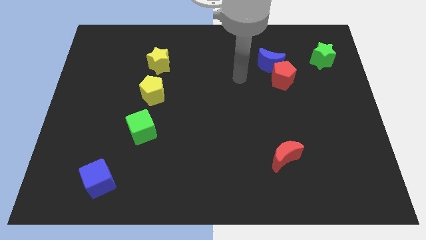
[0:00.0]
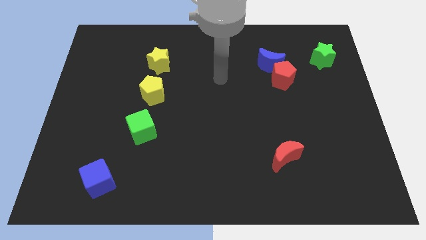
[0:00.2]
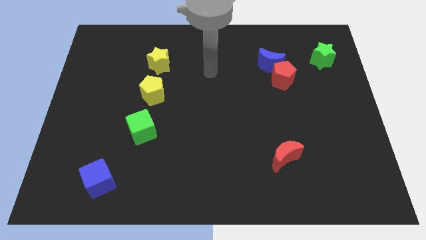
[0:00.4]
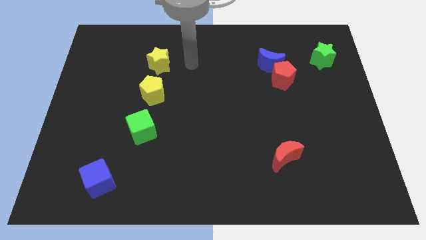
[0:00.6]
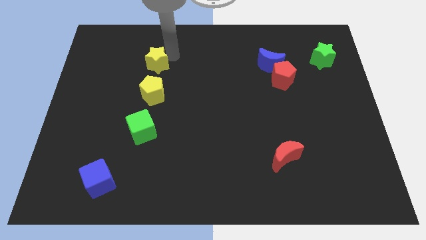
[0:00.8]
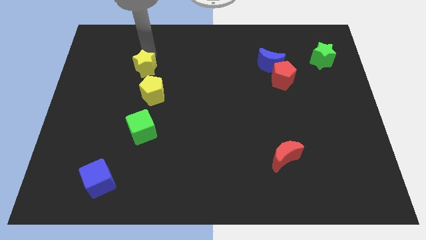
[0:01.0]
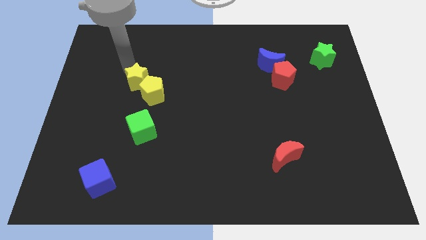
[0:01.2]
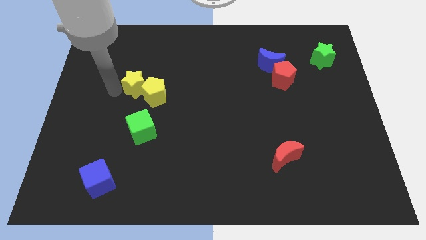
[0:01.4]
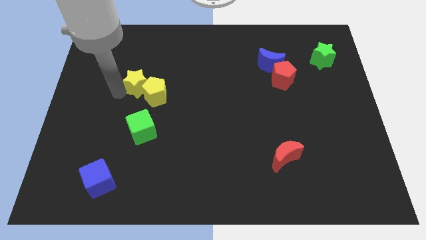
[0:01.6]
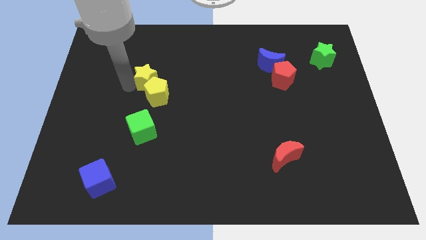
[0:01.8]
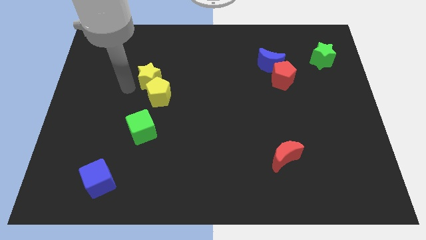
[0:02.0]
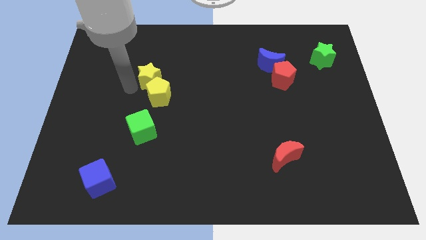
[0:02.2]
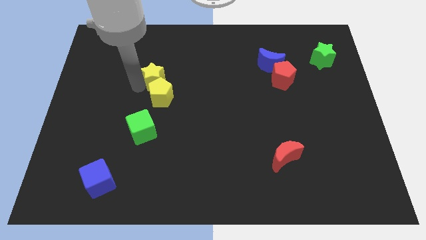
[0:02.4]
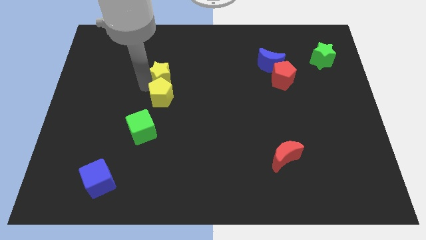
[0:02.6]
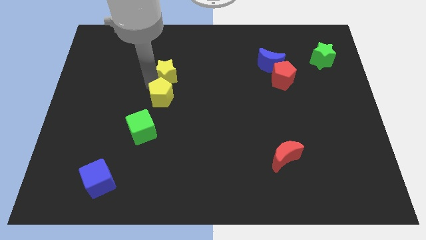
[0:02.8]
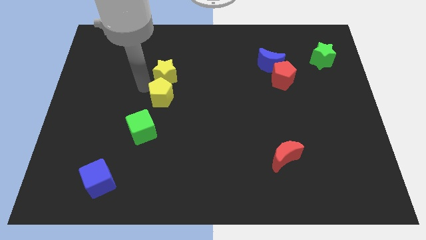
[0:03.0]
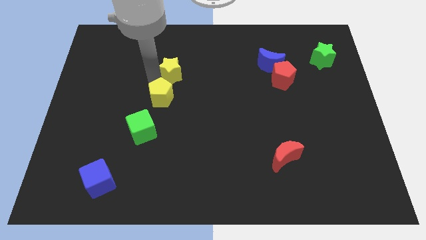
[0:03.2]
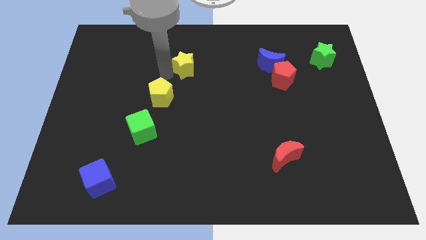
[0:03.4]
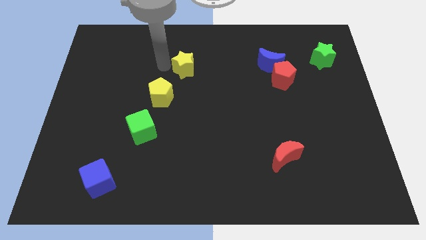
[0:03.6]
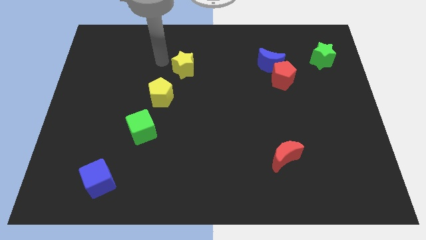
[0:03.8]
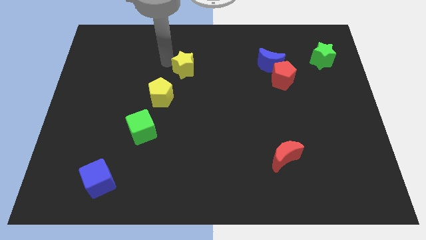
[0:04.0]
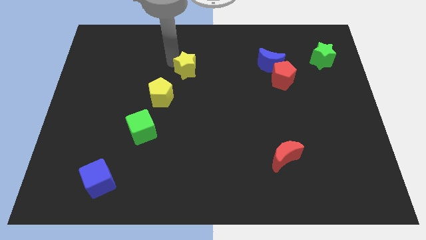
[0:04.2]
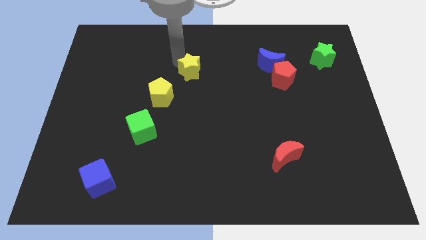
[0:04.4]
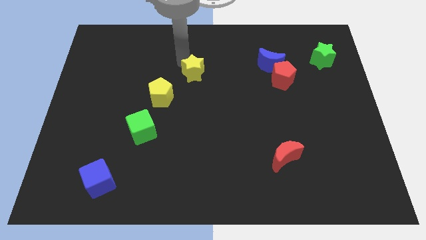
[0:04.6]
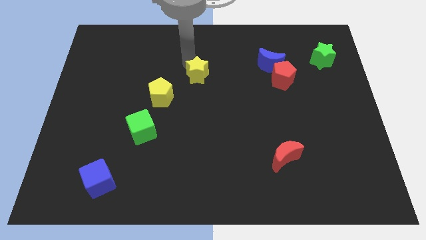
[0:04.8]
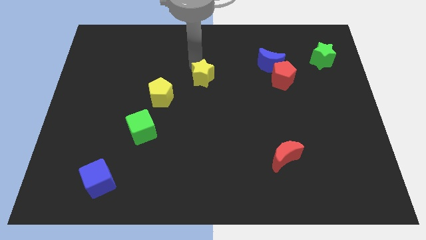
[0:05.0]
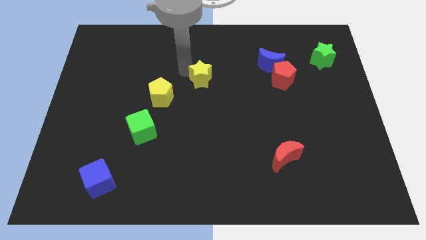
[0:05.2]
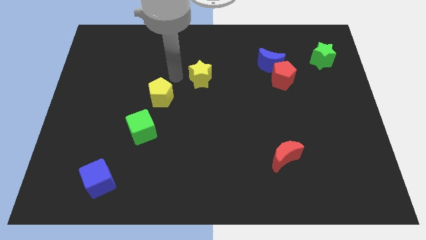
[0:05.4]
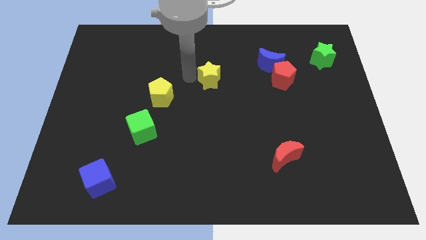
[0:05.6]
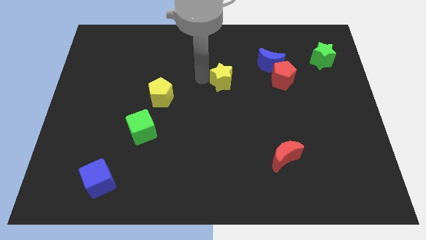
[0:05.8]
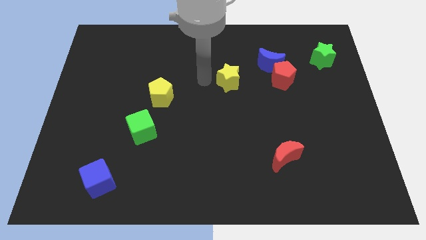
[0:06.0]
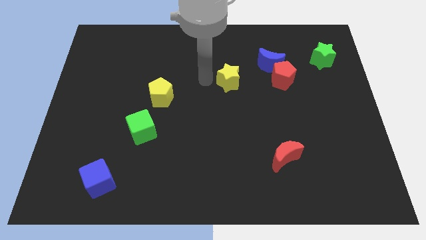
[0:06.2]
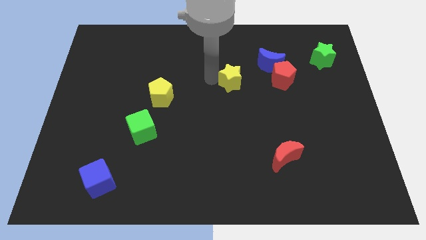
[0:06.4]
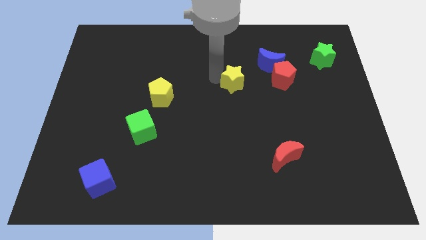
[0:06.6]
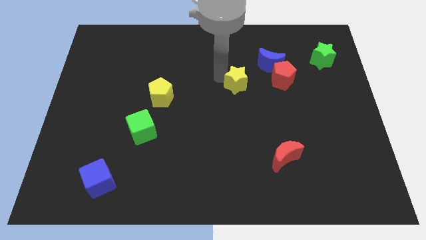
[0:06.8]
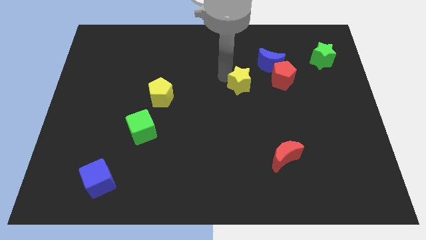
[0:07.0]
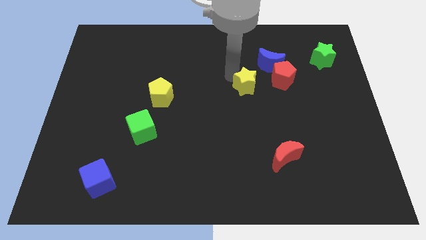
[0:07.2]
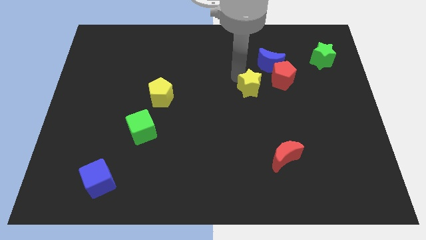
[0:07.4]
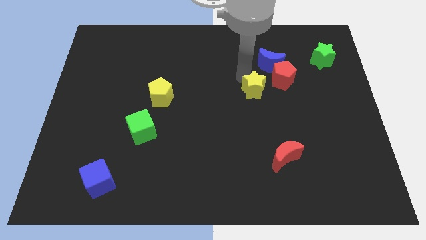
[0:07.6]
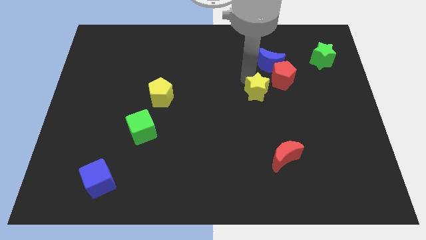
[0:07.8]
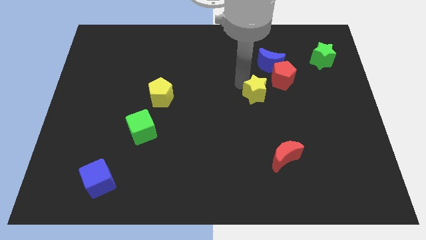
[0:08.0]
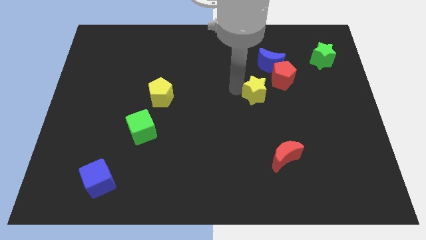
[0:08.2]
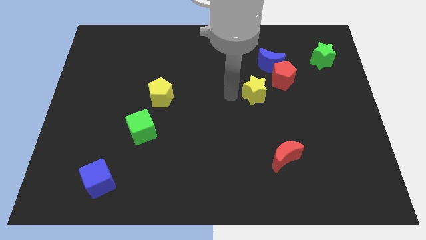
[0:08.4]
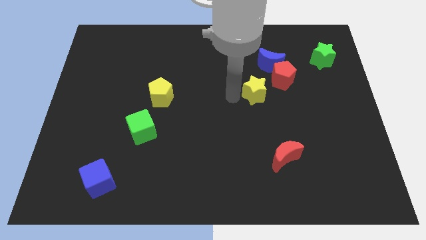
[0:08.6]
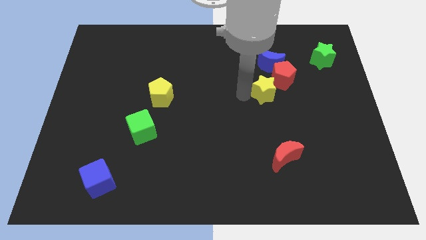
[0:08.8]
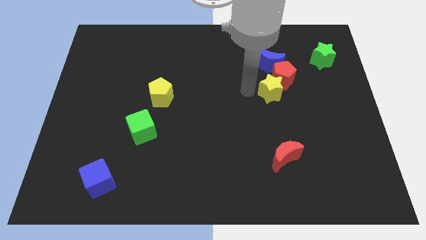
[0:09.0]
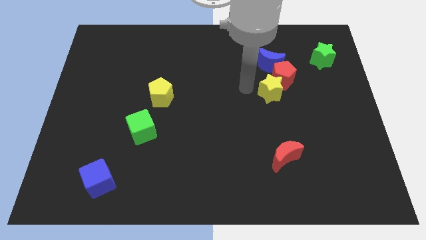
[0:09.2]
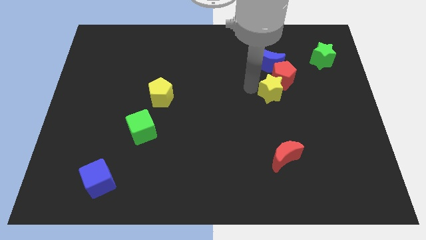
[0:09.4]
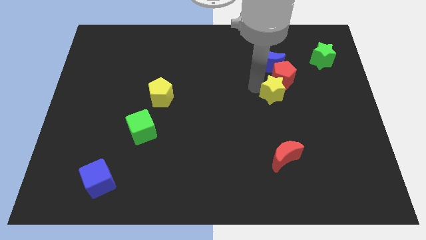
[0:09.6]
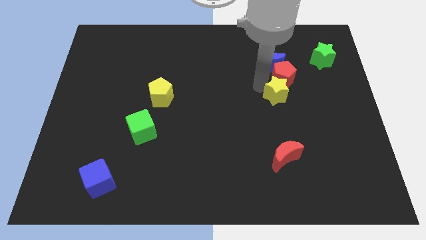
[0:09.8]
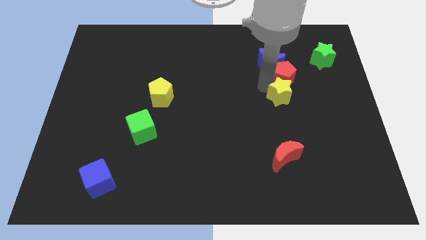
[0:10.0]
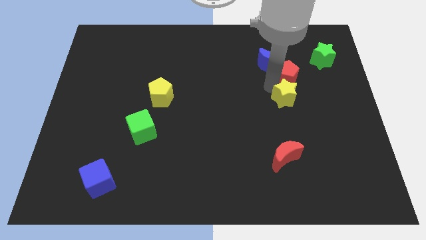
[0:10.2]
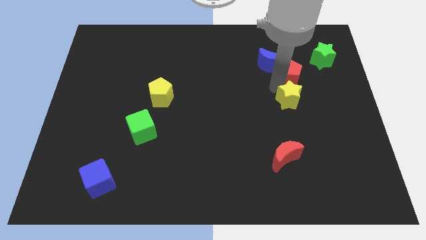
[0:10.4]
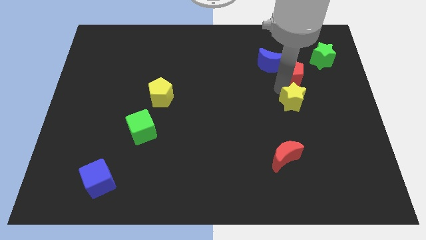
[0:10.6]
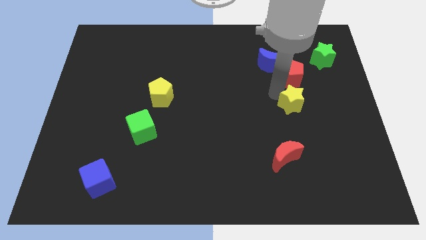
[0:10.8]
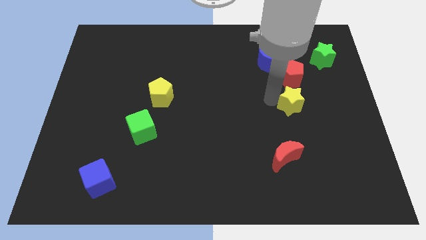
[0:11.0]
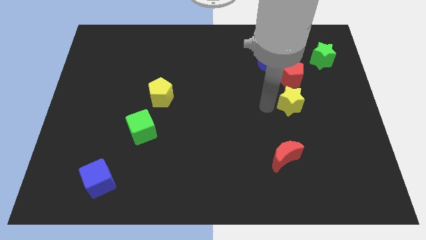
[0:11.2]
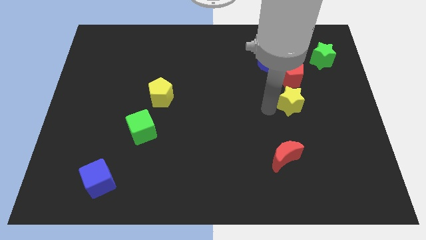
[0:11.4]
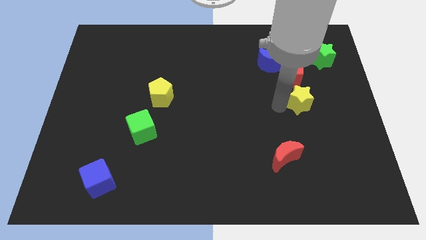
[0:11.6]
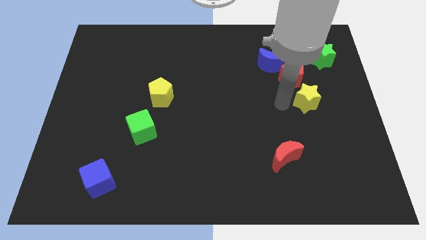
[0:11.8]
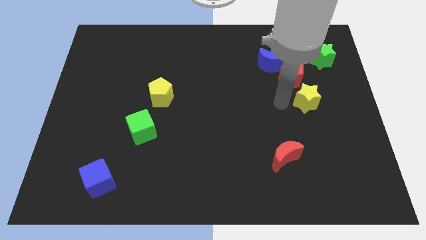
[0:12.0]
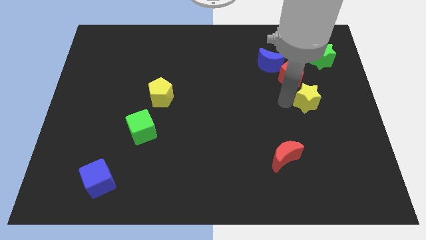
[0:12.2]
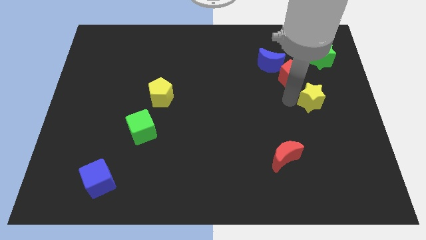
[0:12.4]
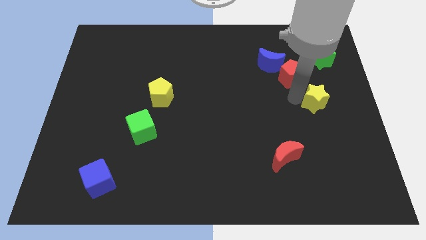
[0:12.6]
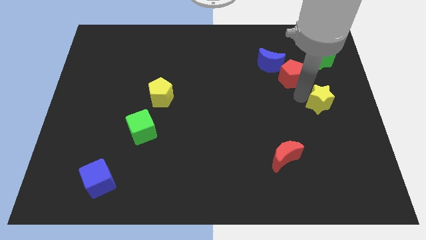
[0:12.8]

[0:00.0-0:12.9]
put the yellow star to the right side
